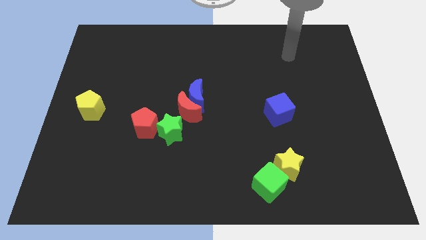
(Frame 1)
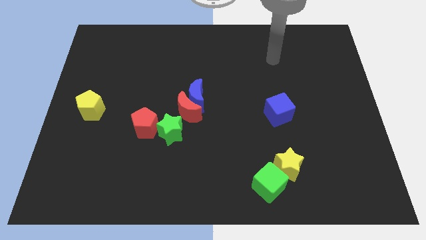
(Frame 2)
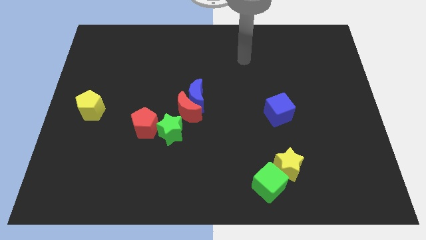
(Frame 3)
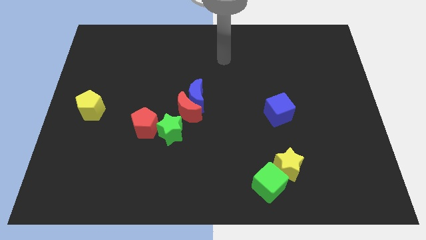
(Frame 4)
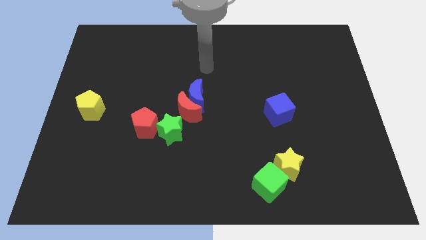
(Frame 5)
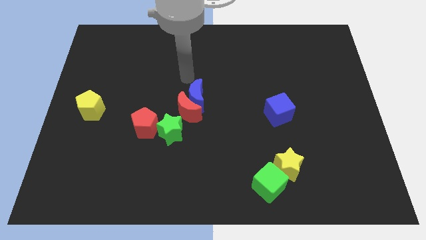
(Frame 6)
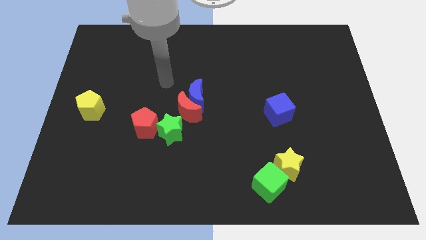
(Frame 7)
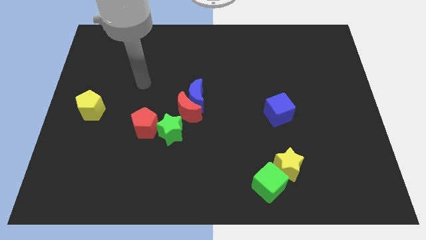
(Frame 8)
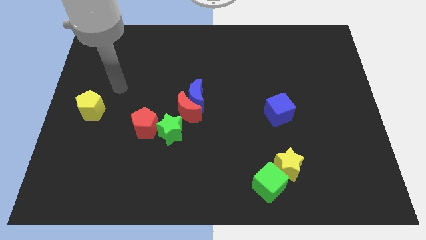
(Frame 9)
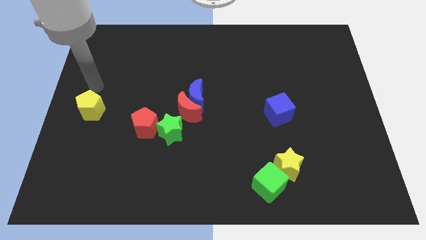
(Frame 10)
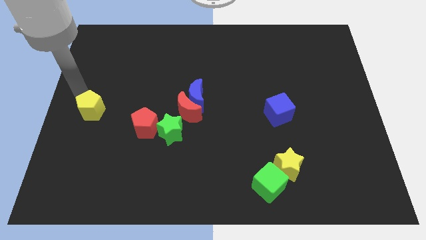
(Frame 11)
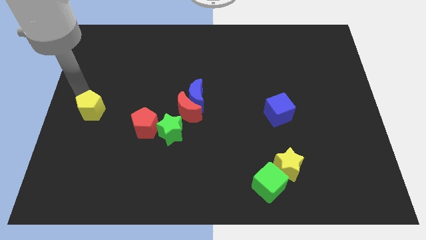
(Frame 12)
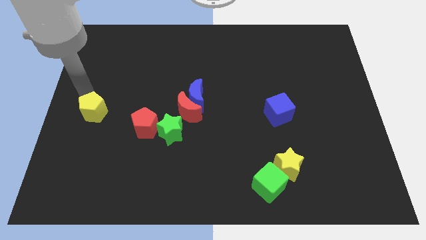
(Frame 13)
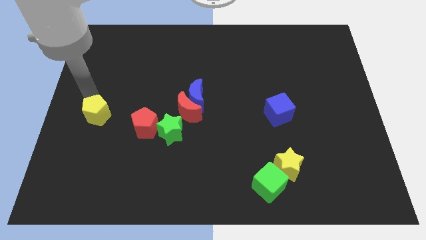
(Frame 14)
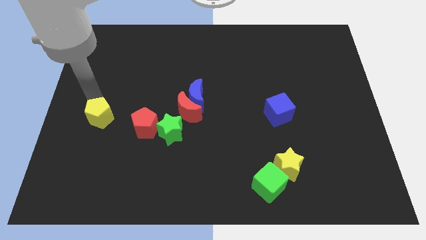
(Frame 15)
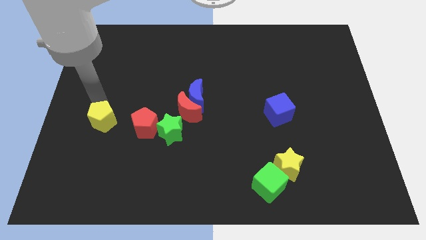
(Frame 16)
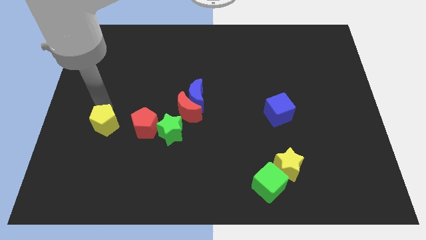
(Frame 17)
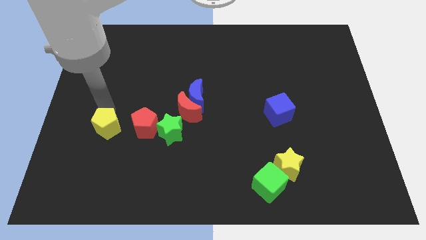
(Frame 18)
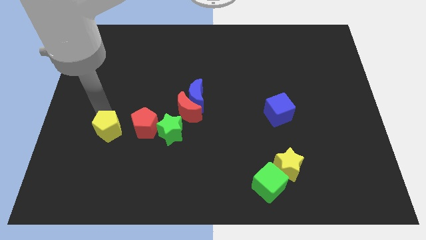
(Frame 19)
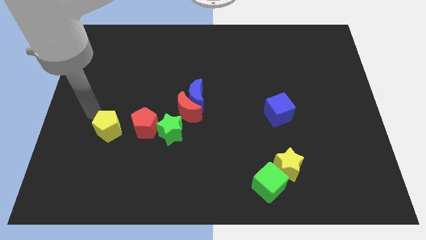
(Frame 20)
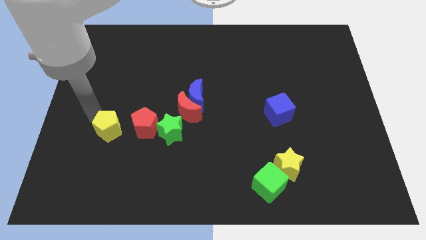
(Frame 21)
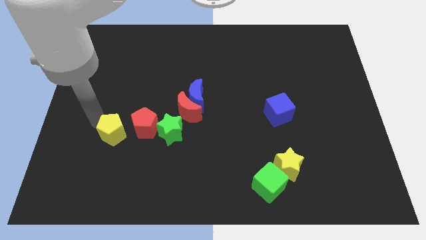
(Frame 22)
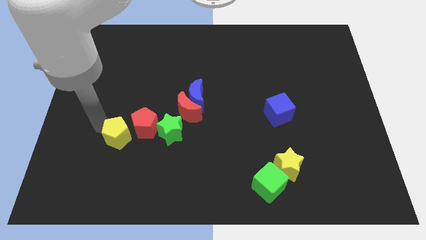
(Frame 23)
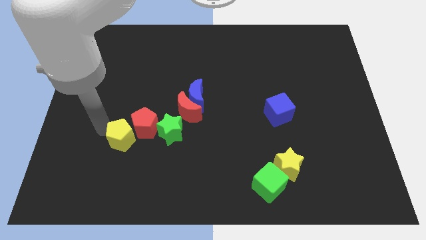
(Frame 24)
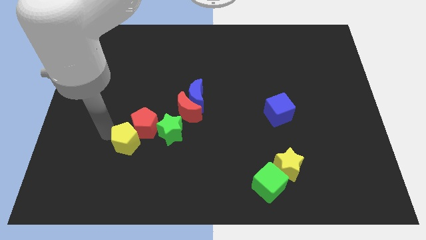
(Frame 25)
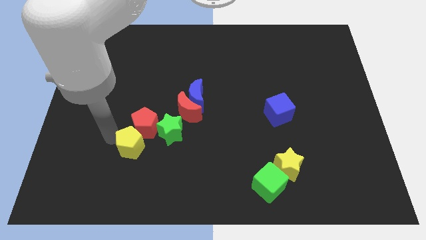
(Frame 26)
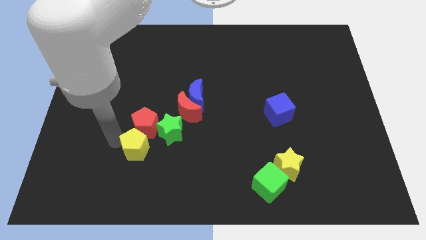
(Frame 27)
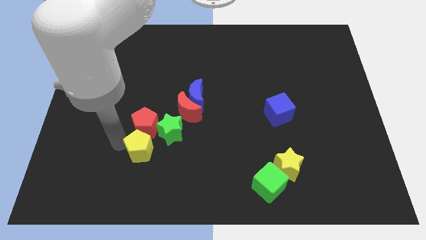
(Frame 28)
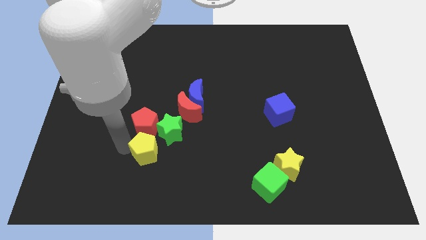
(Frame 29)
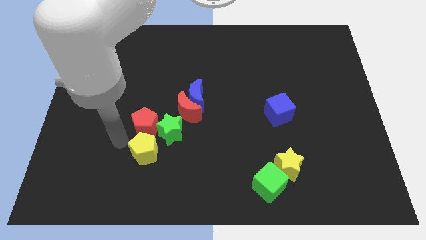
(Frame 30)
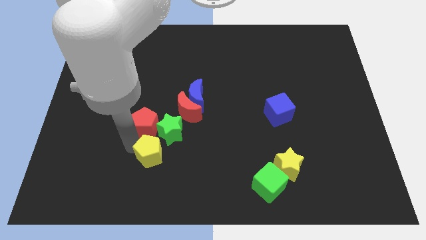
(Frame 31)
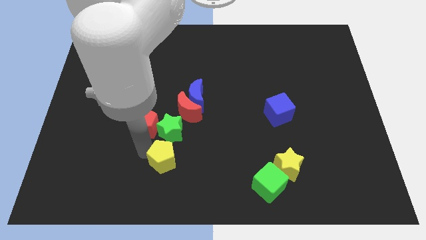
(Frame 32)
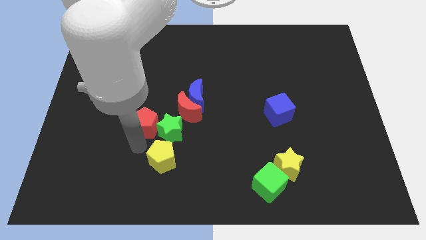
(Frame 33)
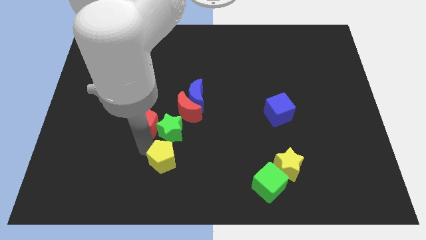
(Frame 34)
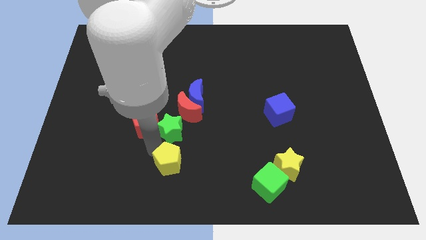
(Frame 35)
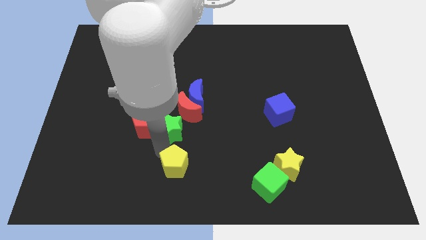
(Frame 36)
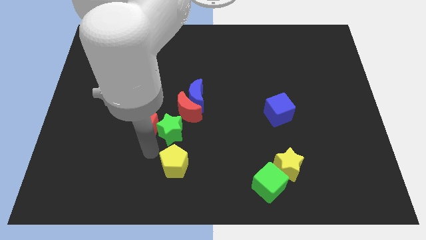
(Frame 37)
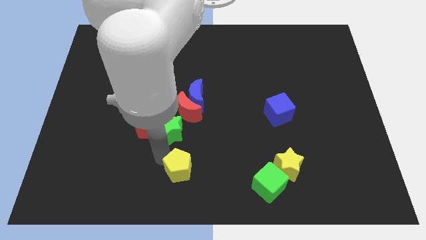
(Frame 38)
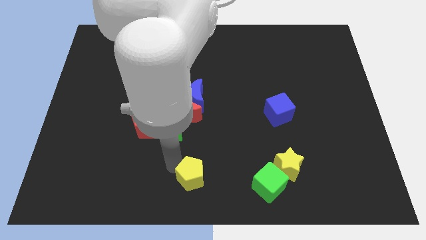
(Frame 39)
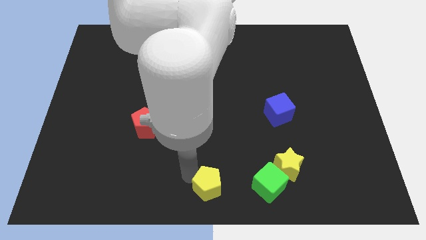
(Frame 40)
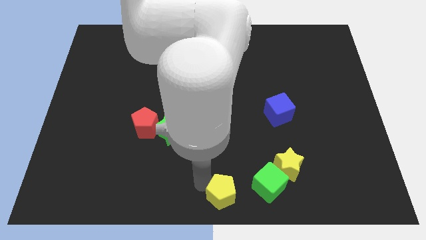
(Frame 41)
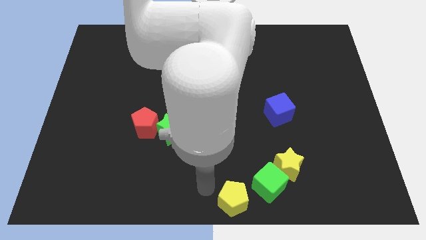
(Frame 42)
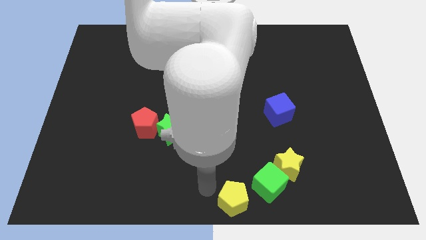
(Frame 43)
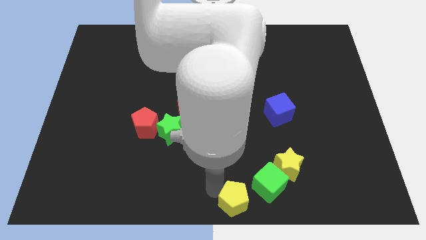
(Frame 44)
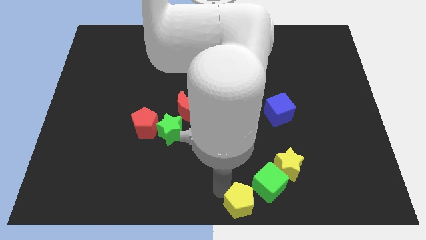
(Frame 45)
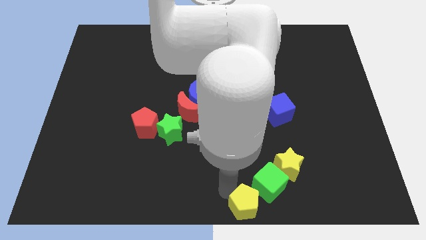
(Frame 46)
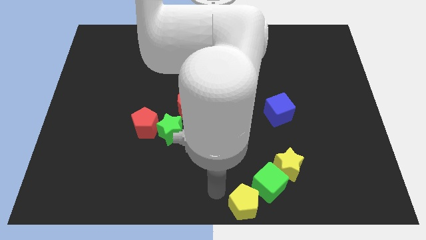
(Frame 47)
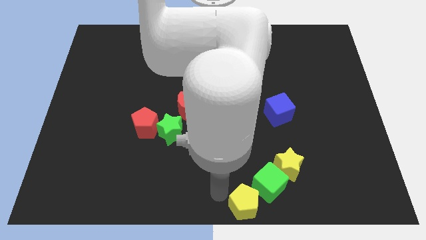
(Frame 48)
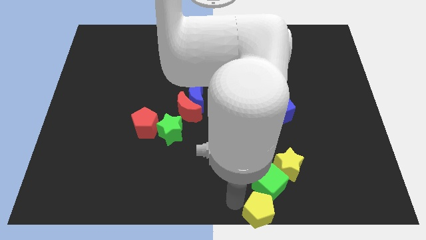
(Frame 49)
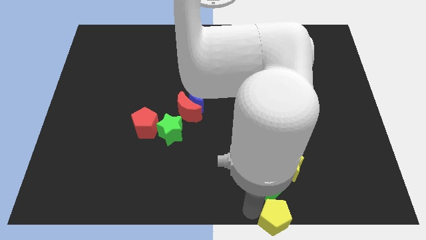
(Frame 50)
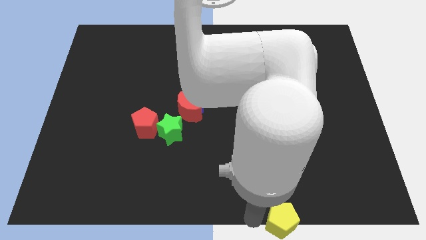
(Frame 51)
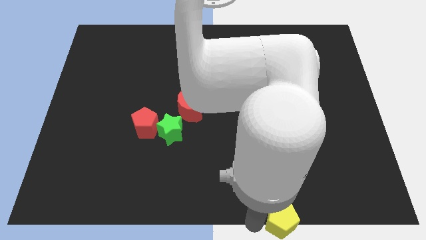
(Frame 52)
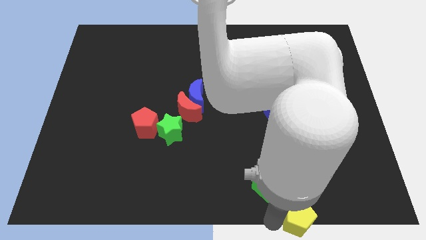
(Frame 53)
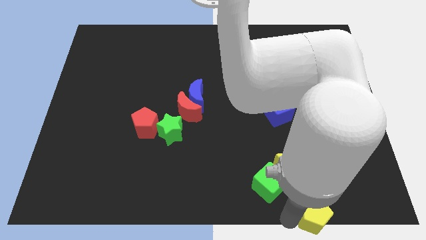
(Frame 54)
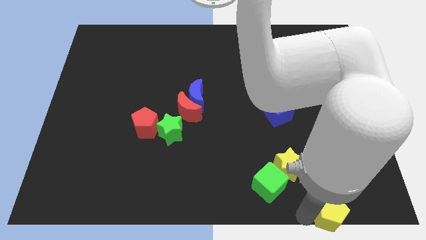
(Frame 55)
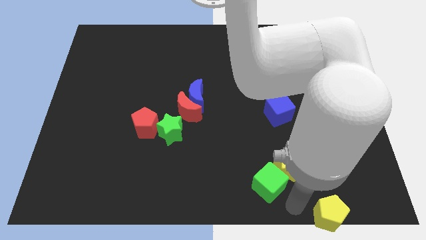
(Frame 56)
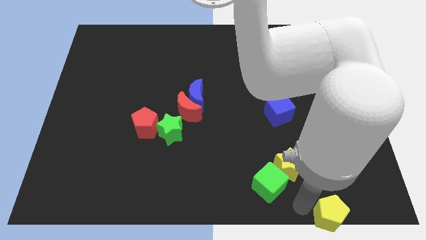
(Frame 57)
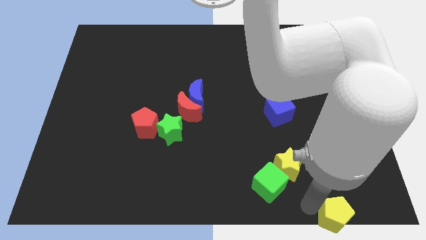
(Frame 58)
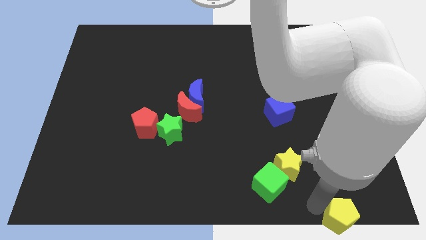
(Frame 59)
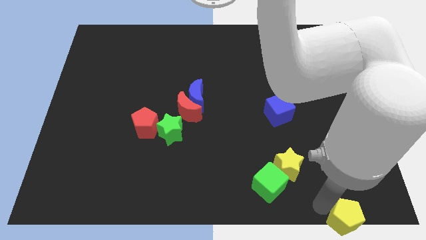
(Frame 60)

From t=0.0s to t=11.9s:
move the yellow pentagon to the bottom right of the board
